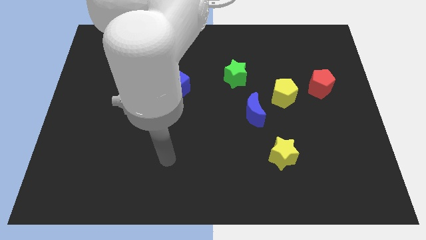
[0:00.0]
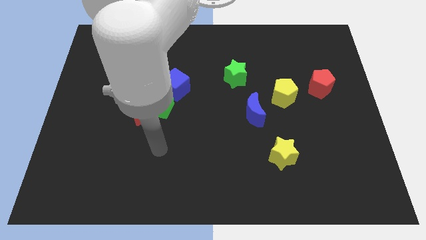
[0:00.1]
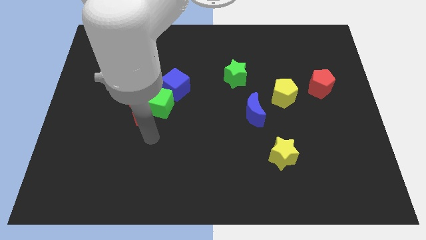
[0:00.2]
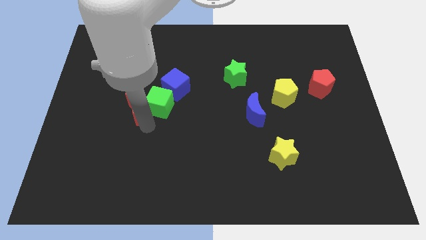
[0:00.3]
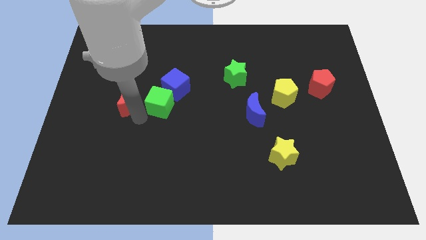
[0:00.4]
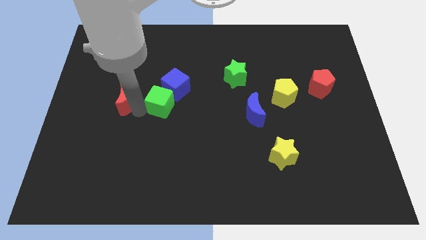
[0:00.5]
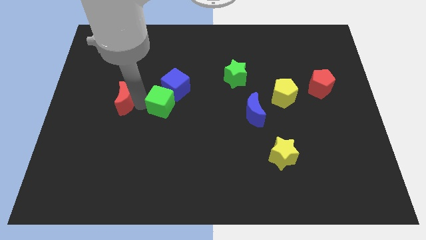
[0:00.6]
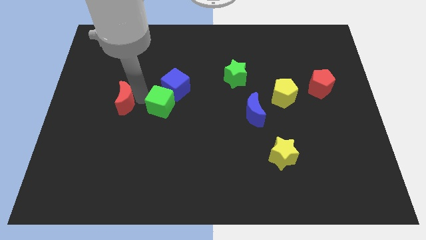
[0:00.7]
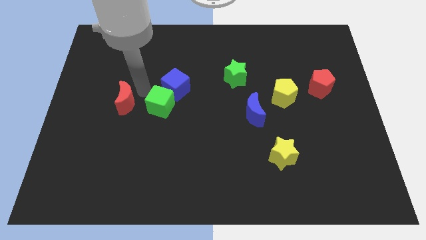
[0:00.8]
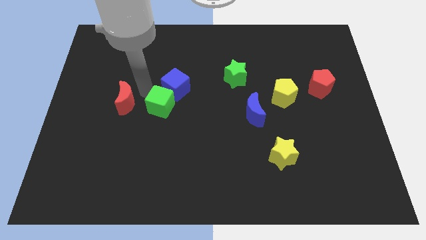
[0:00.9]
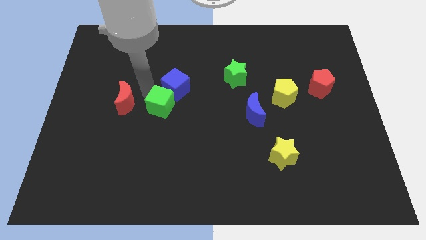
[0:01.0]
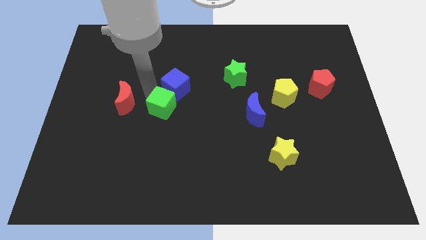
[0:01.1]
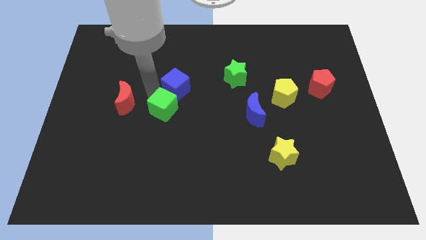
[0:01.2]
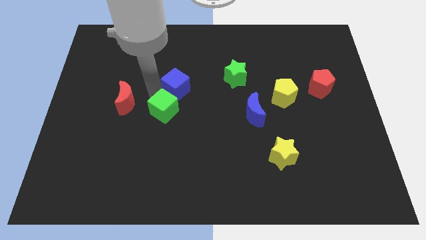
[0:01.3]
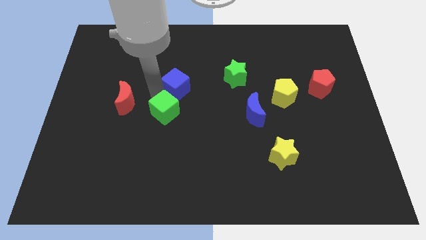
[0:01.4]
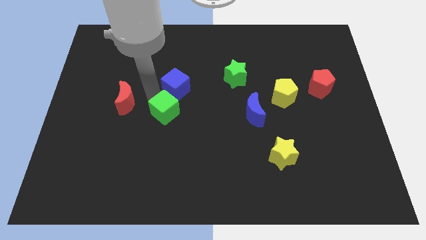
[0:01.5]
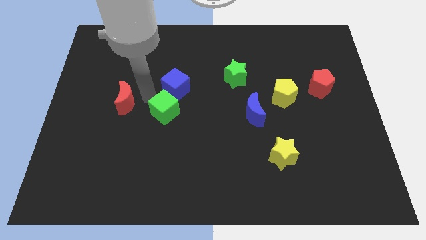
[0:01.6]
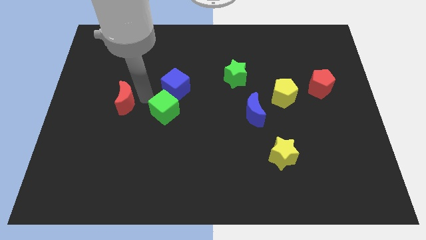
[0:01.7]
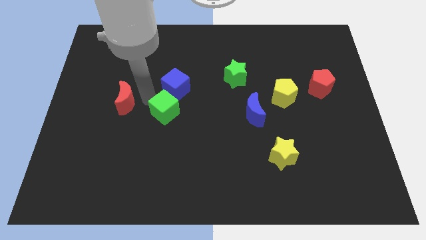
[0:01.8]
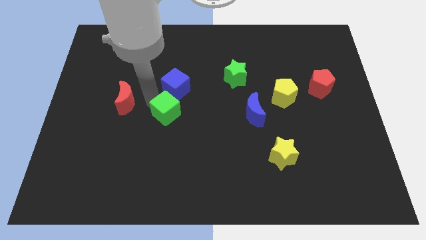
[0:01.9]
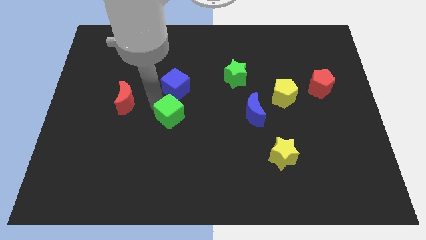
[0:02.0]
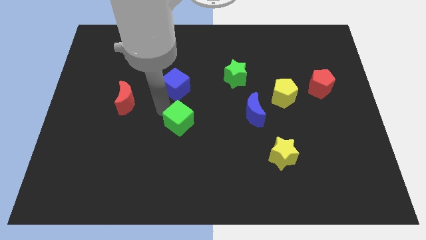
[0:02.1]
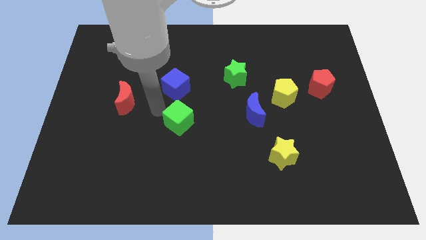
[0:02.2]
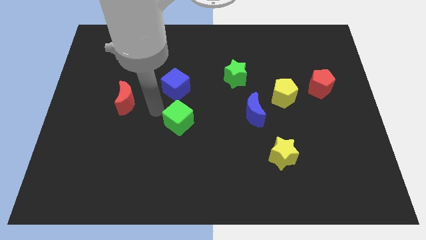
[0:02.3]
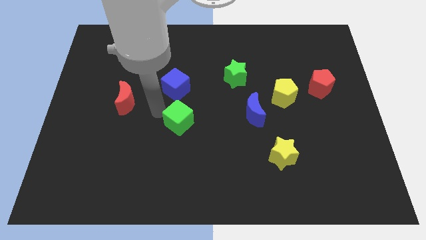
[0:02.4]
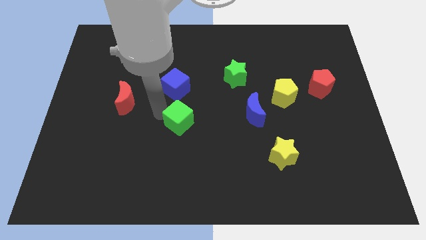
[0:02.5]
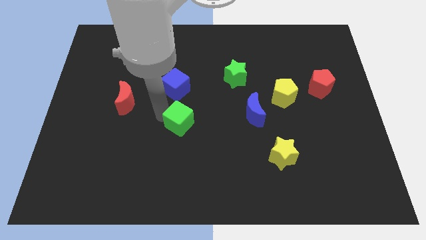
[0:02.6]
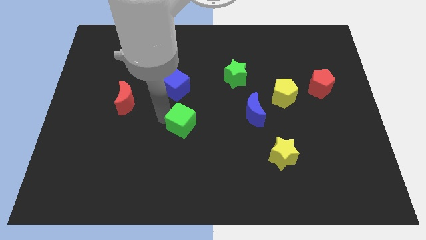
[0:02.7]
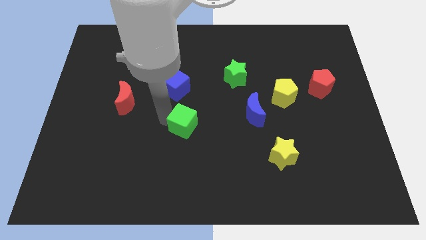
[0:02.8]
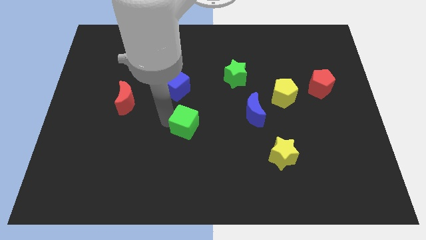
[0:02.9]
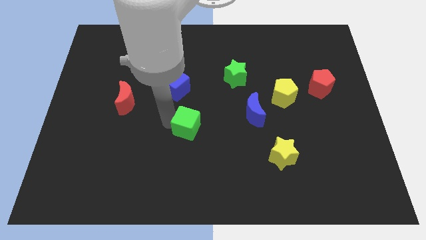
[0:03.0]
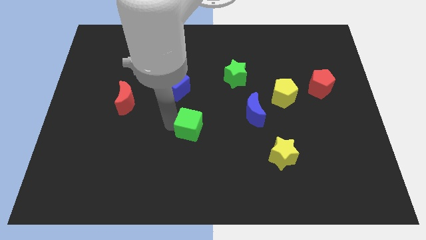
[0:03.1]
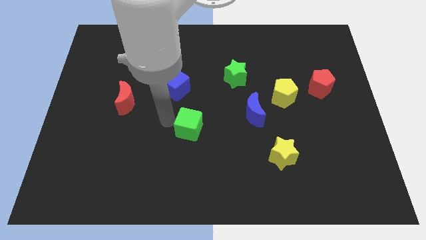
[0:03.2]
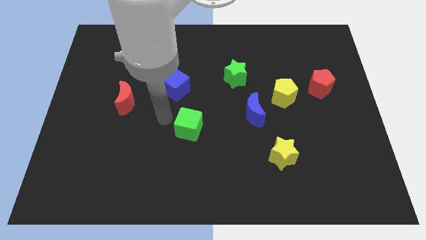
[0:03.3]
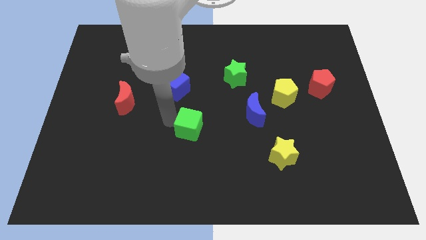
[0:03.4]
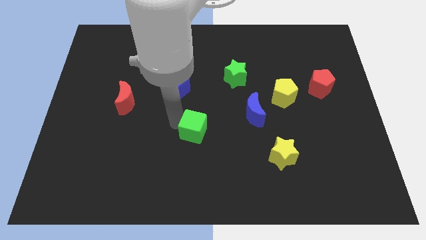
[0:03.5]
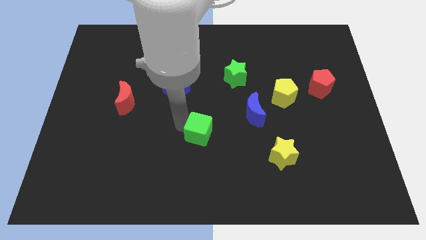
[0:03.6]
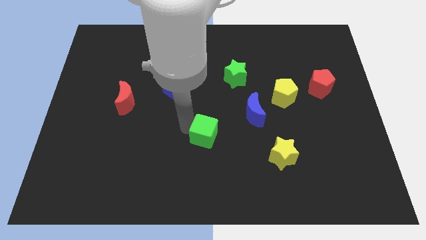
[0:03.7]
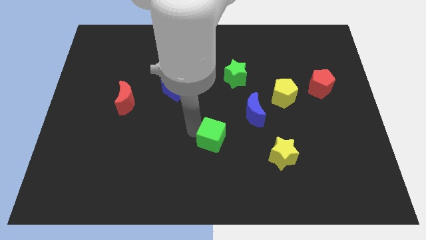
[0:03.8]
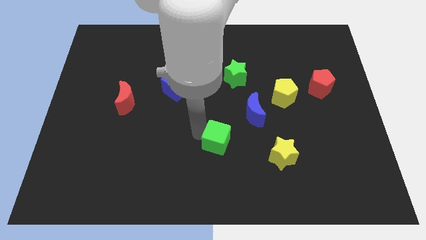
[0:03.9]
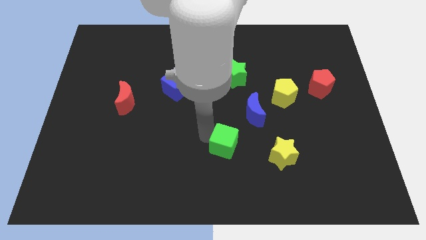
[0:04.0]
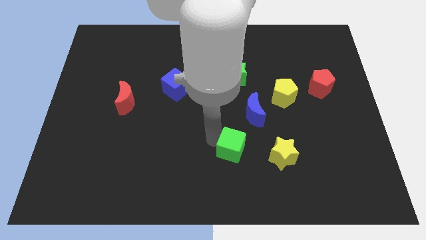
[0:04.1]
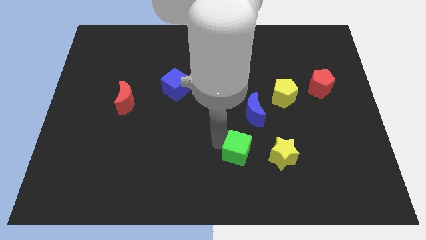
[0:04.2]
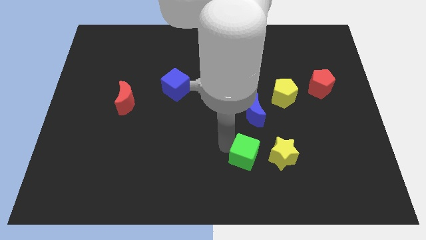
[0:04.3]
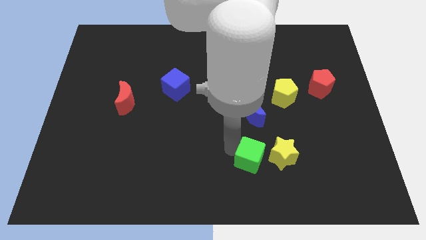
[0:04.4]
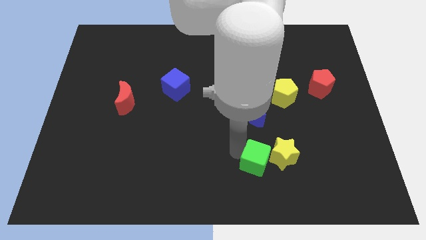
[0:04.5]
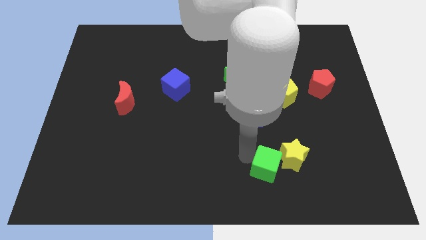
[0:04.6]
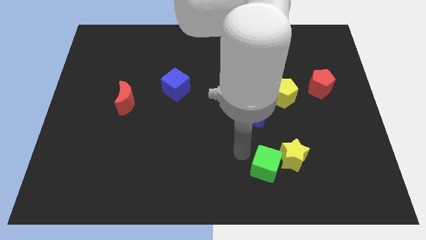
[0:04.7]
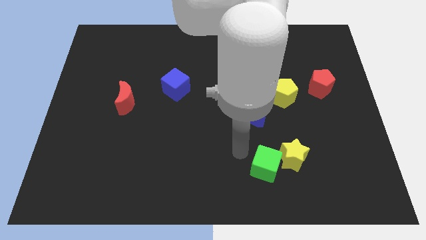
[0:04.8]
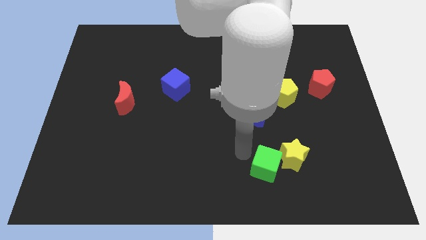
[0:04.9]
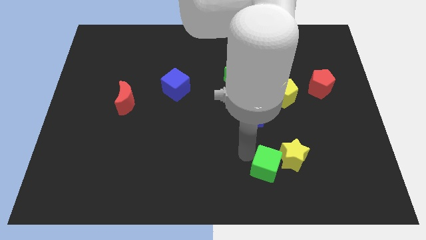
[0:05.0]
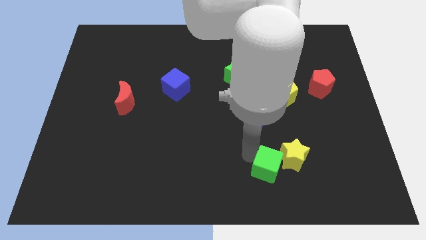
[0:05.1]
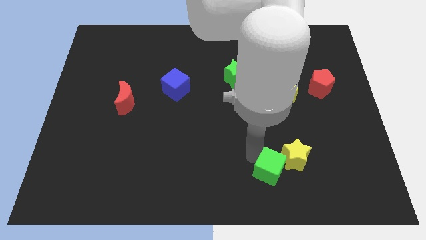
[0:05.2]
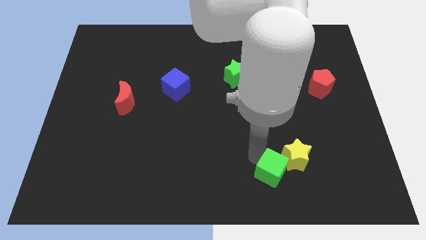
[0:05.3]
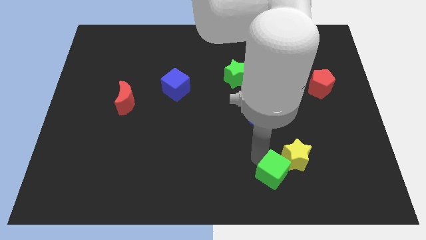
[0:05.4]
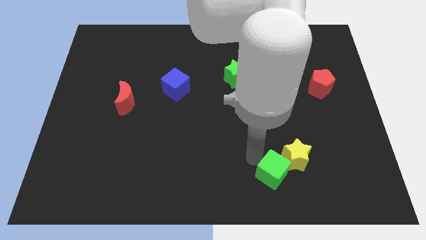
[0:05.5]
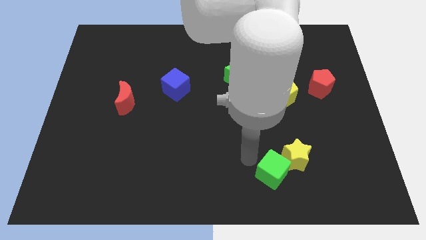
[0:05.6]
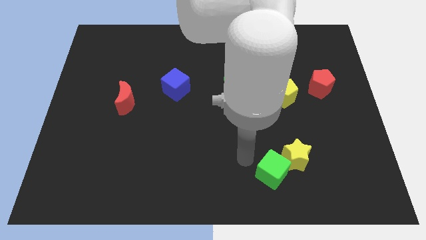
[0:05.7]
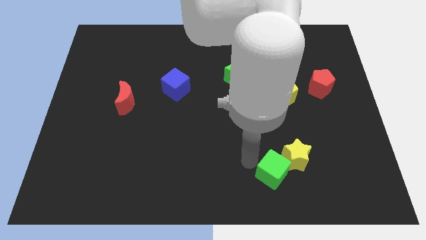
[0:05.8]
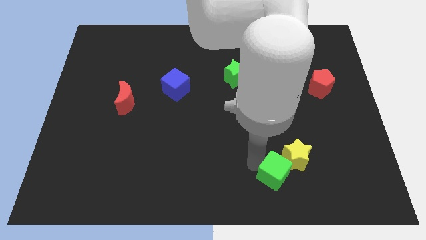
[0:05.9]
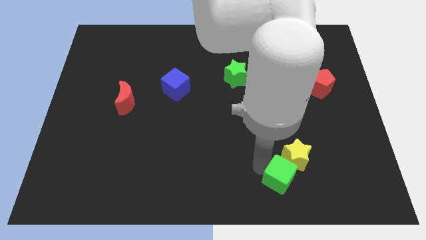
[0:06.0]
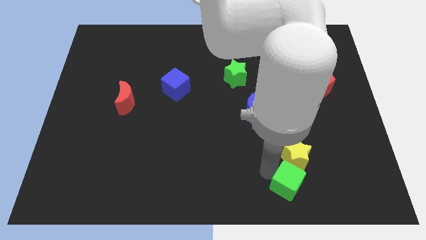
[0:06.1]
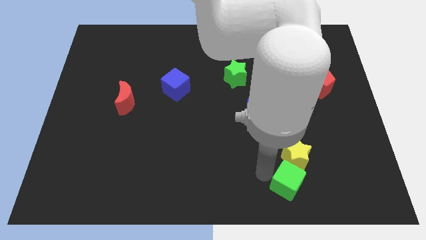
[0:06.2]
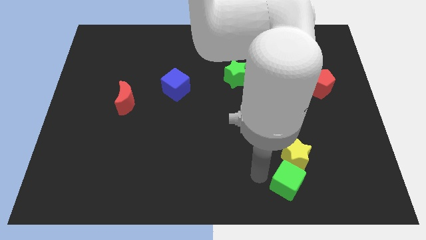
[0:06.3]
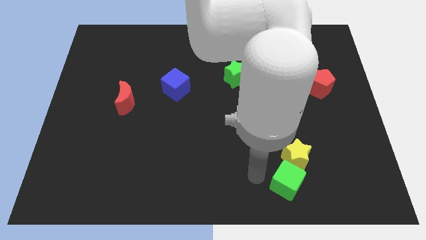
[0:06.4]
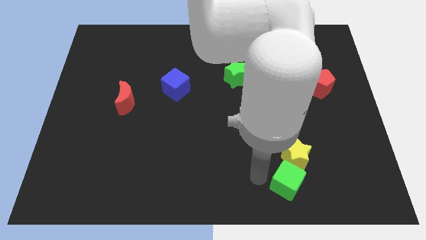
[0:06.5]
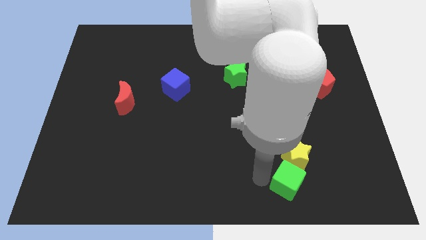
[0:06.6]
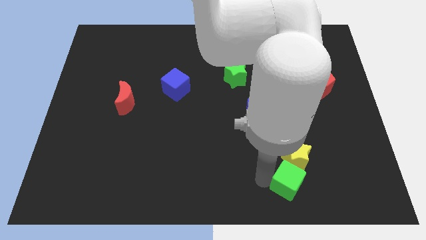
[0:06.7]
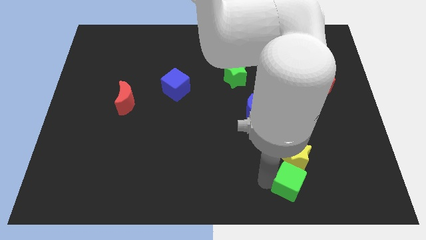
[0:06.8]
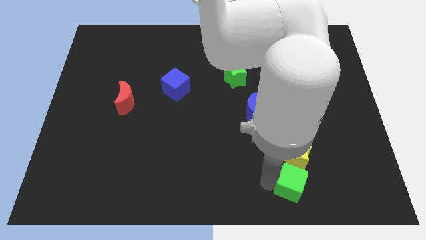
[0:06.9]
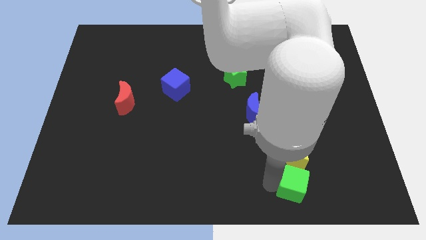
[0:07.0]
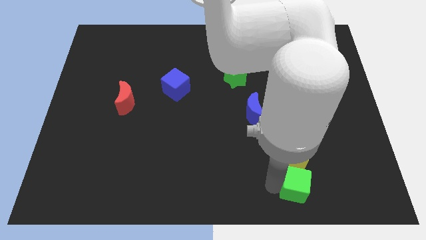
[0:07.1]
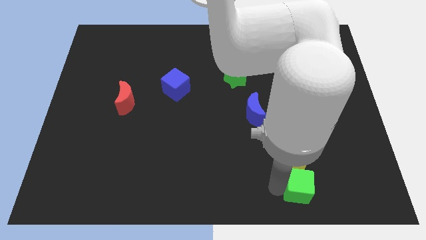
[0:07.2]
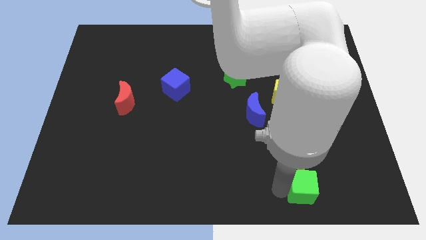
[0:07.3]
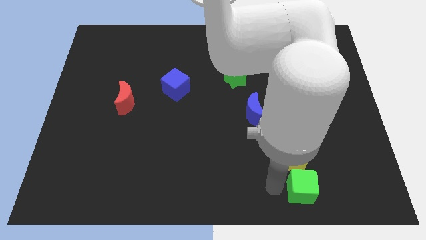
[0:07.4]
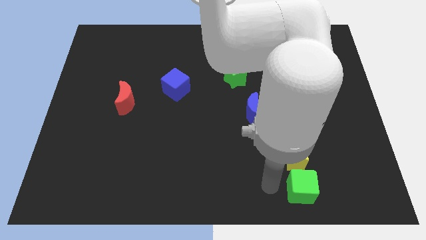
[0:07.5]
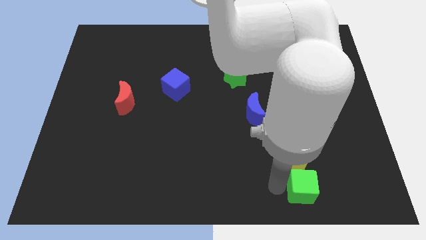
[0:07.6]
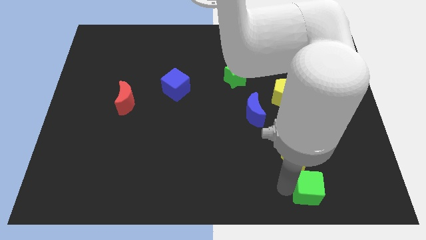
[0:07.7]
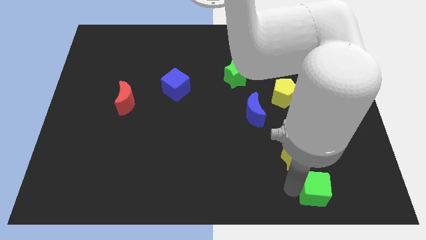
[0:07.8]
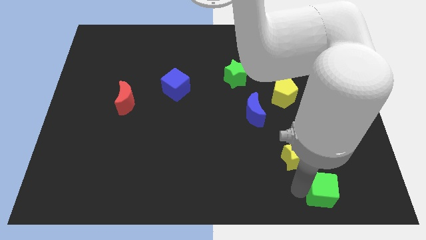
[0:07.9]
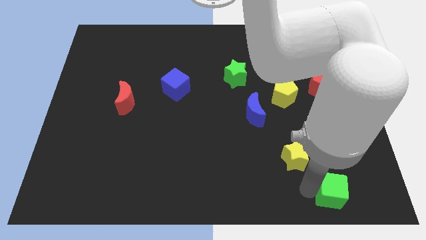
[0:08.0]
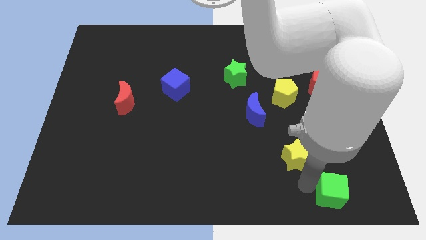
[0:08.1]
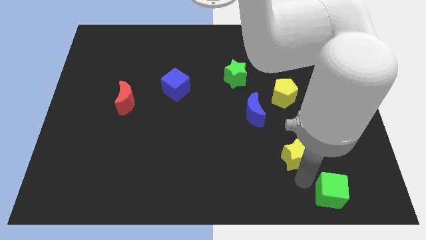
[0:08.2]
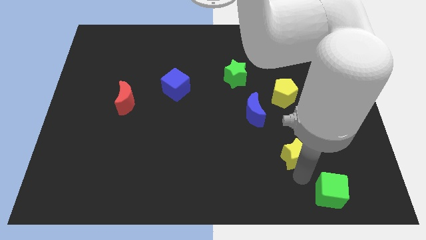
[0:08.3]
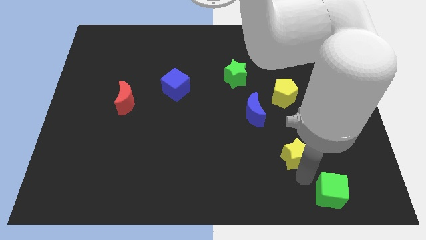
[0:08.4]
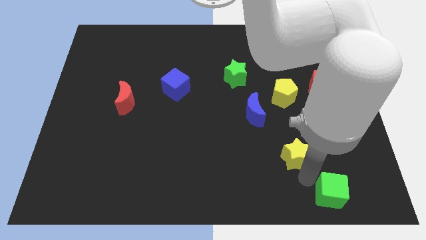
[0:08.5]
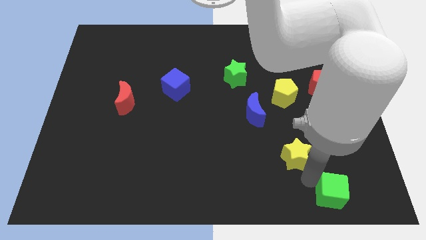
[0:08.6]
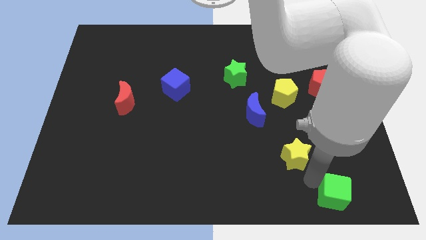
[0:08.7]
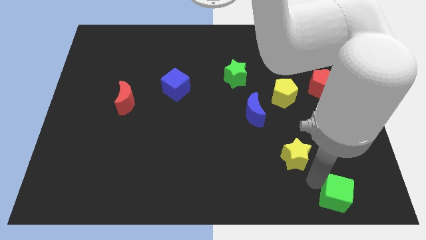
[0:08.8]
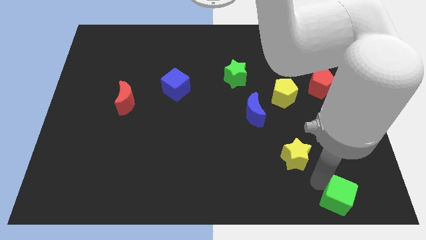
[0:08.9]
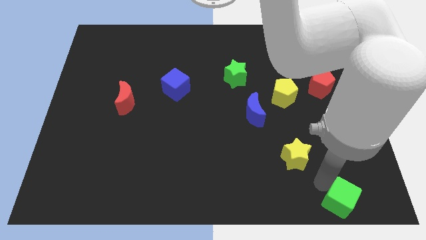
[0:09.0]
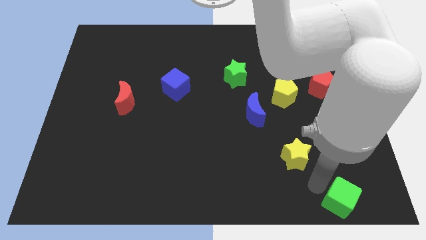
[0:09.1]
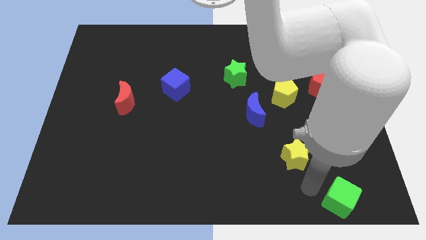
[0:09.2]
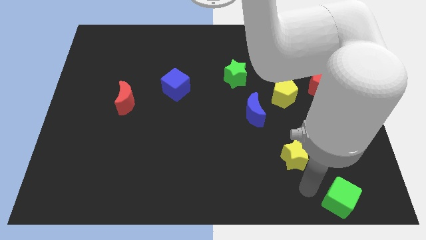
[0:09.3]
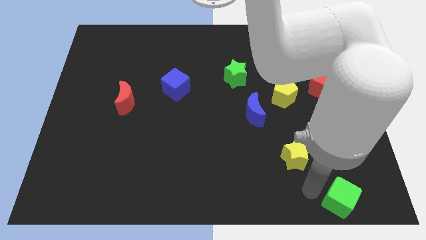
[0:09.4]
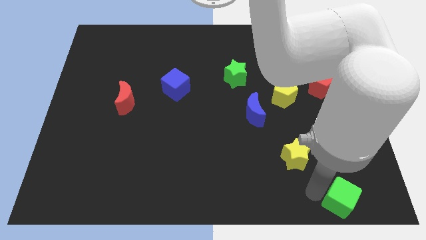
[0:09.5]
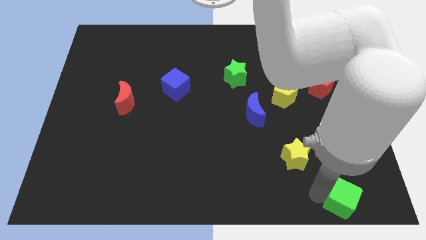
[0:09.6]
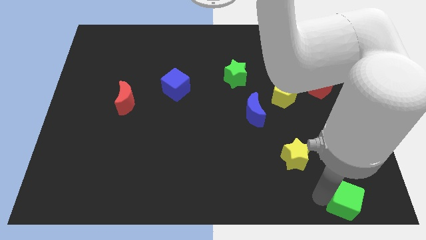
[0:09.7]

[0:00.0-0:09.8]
move the green cube to the lower right corner
